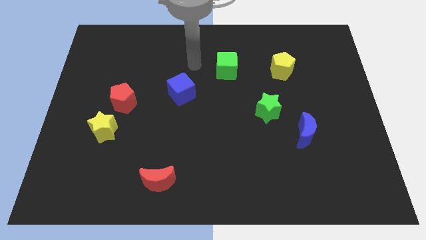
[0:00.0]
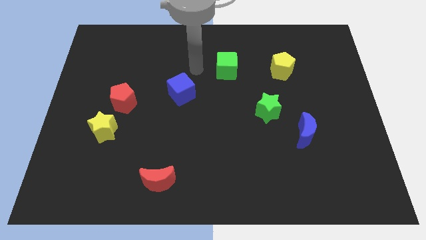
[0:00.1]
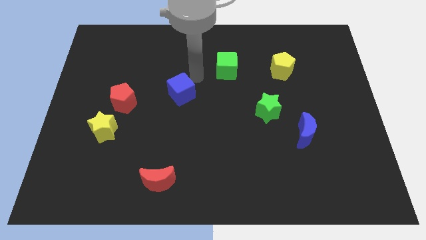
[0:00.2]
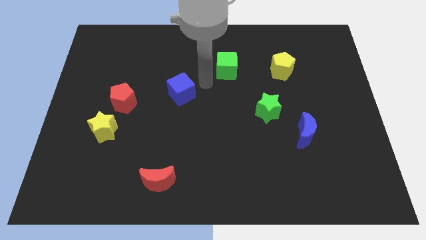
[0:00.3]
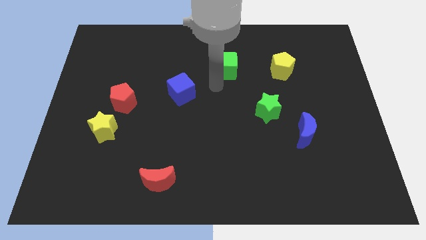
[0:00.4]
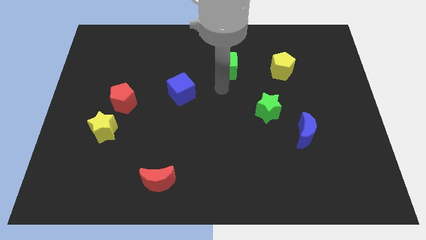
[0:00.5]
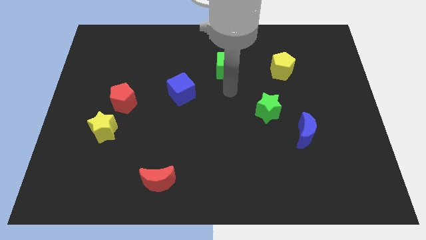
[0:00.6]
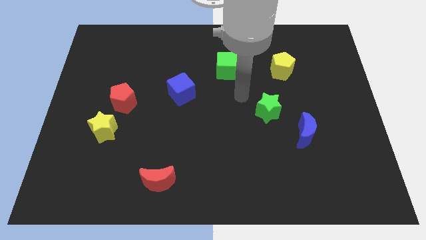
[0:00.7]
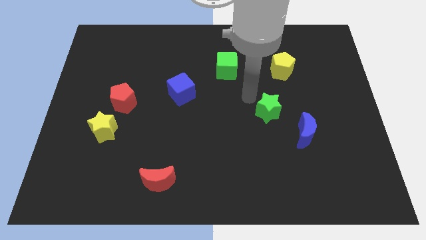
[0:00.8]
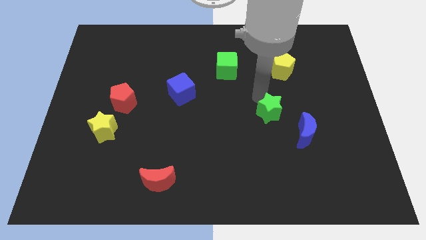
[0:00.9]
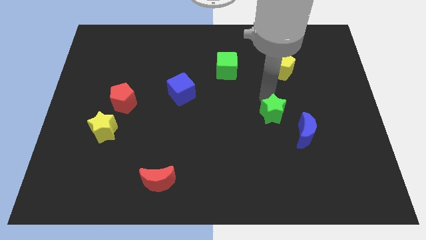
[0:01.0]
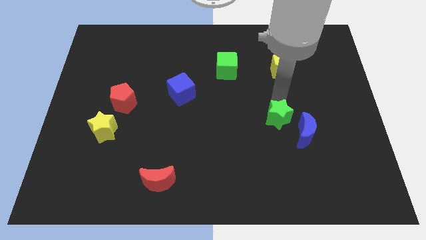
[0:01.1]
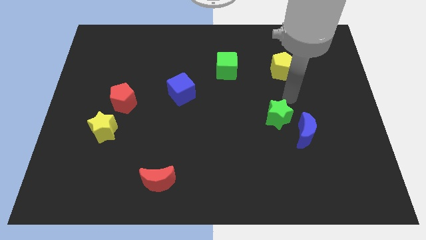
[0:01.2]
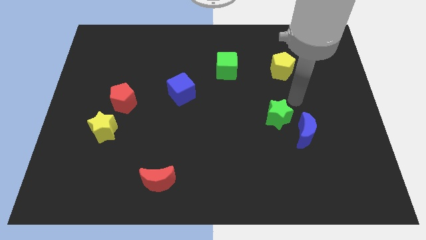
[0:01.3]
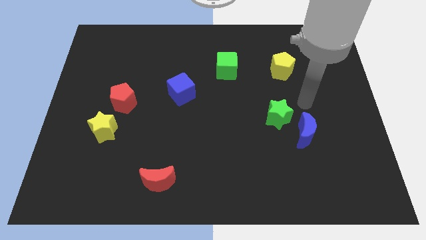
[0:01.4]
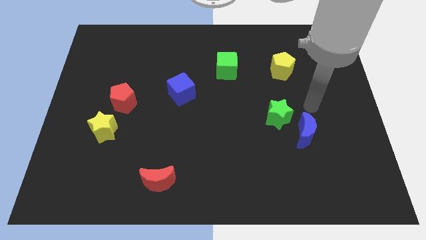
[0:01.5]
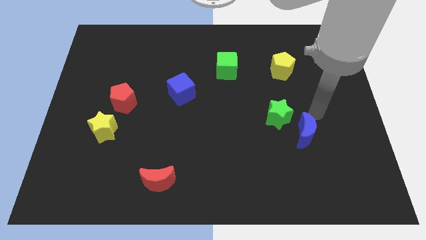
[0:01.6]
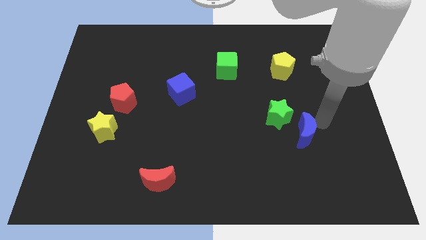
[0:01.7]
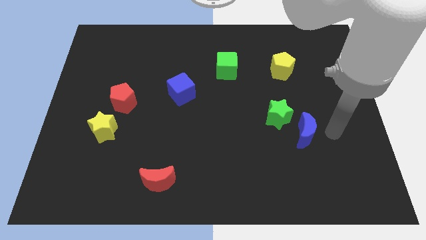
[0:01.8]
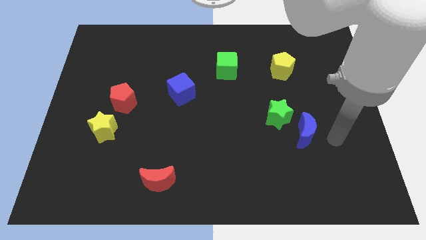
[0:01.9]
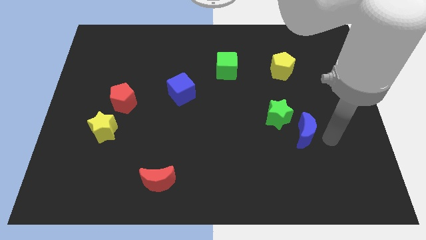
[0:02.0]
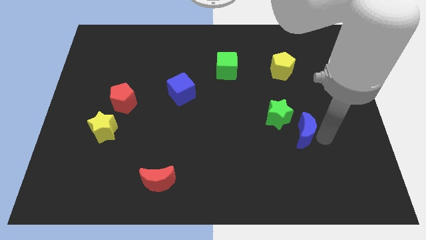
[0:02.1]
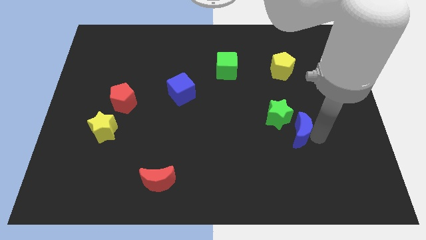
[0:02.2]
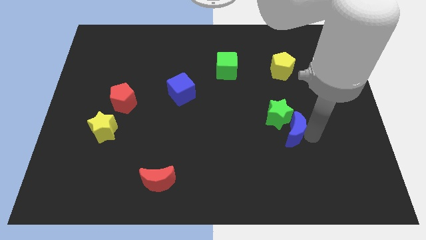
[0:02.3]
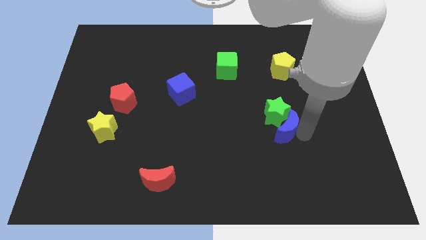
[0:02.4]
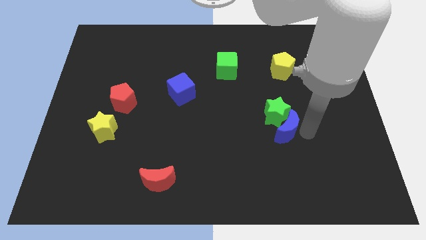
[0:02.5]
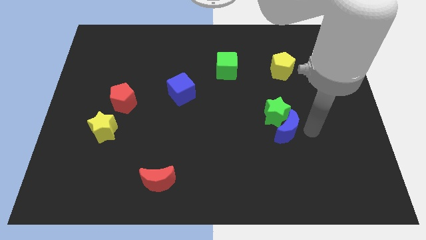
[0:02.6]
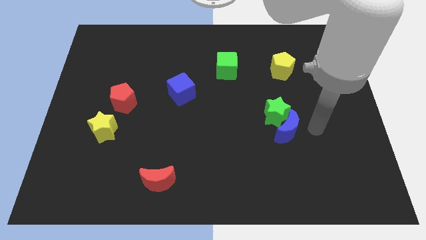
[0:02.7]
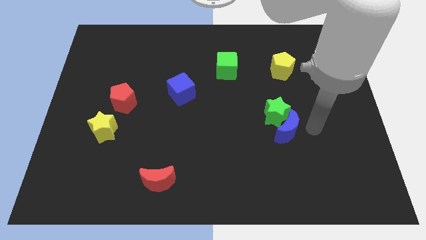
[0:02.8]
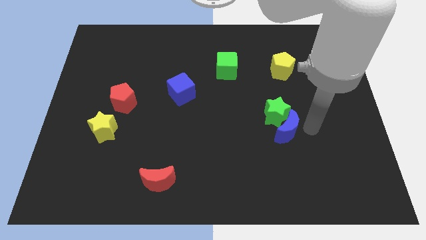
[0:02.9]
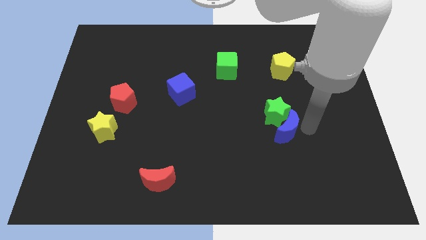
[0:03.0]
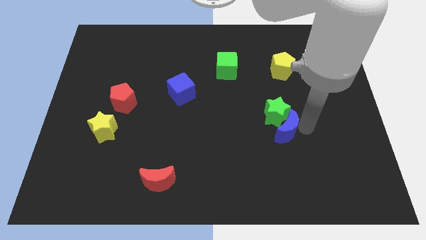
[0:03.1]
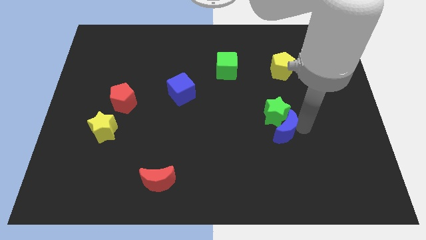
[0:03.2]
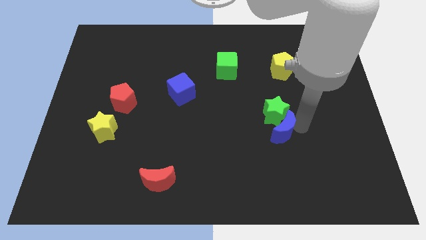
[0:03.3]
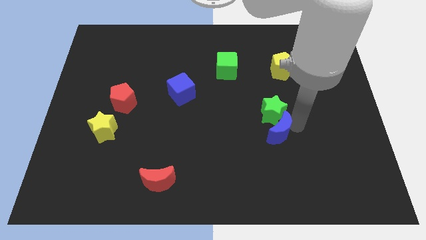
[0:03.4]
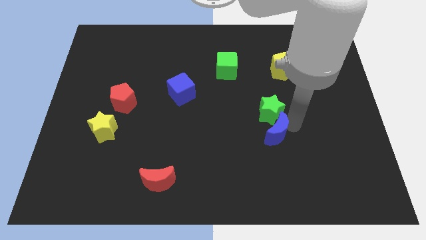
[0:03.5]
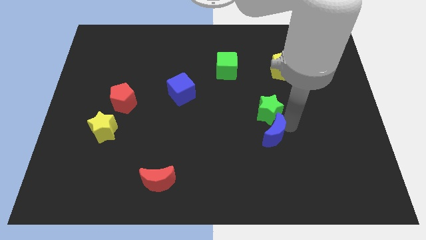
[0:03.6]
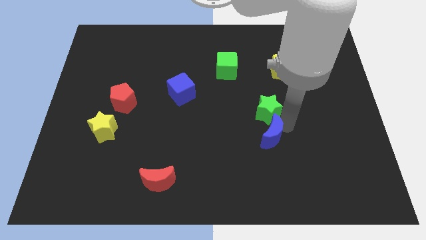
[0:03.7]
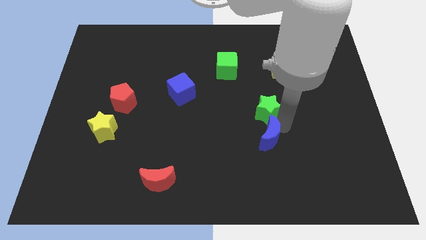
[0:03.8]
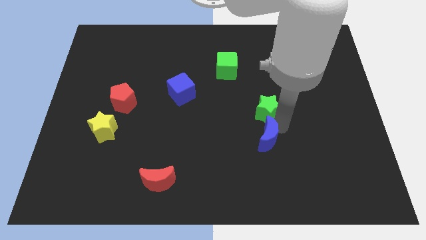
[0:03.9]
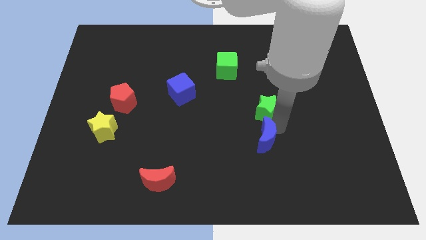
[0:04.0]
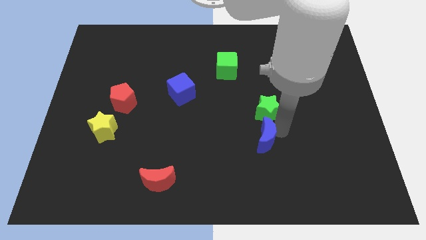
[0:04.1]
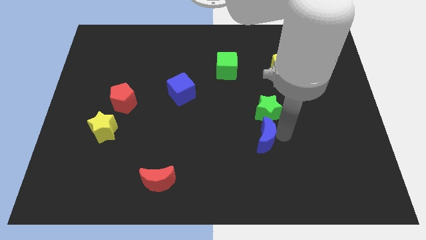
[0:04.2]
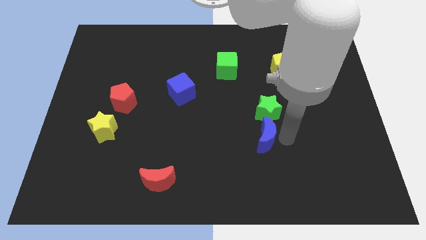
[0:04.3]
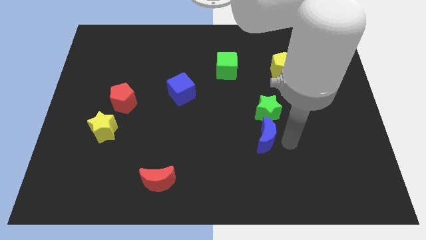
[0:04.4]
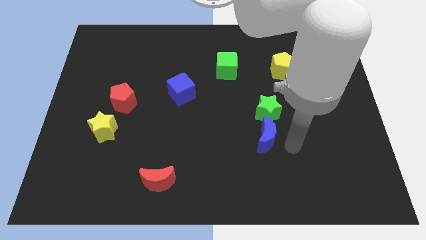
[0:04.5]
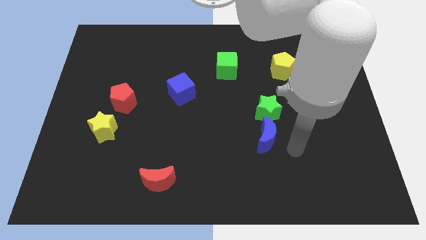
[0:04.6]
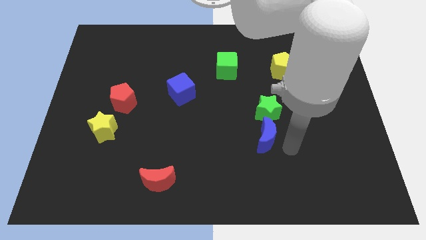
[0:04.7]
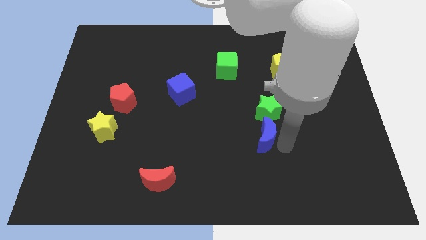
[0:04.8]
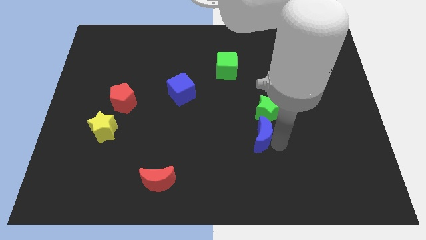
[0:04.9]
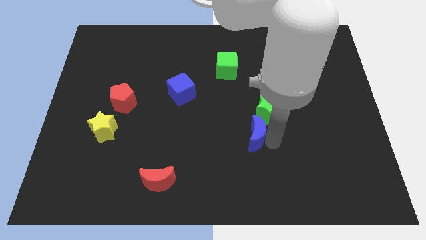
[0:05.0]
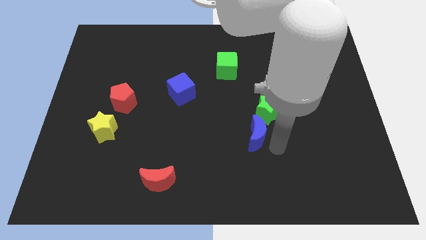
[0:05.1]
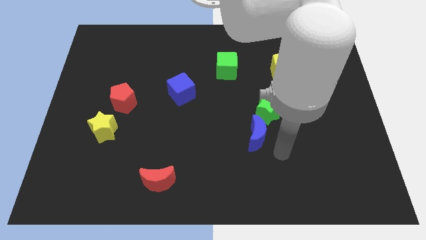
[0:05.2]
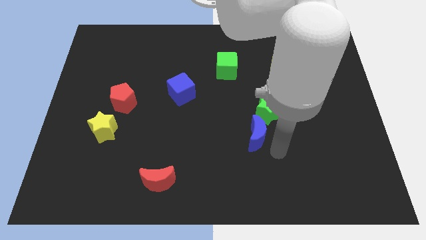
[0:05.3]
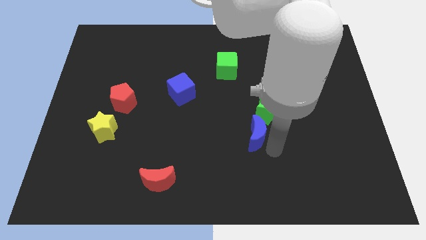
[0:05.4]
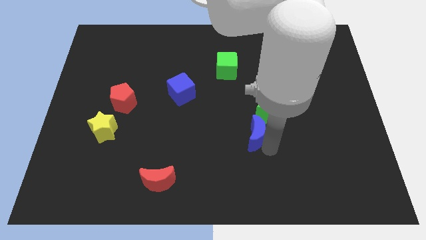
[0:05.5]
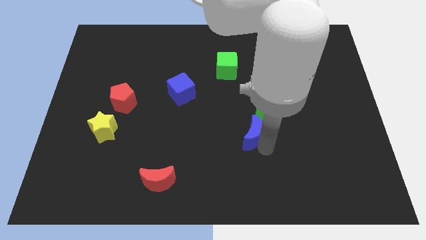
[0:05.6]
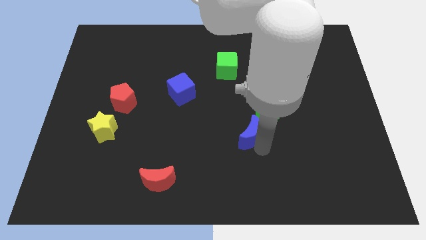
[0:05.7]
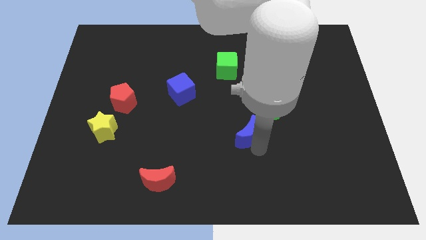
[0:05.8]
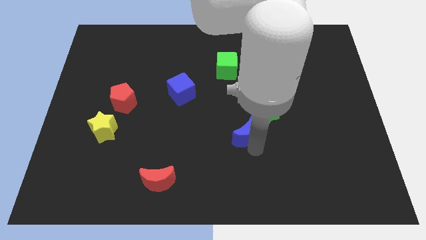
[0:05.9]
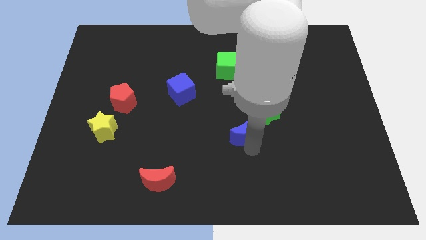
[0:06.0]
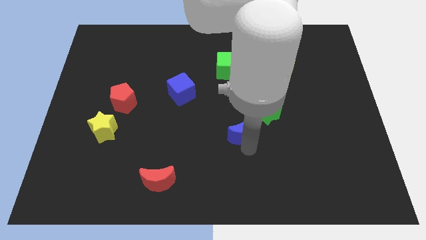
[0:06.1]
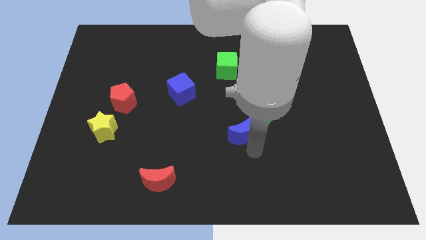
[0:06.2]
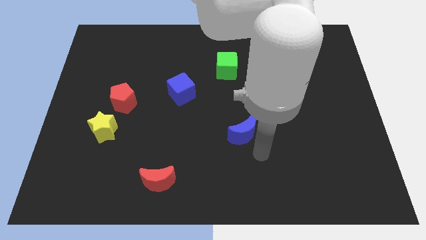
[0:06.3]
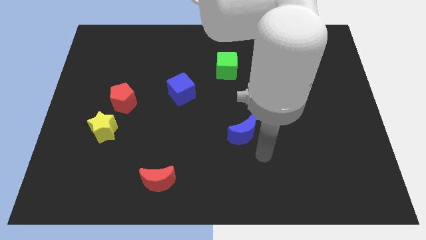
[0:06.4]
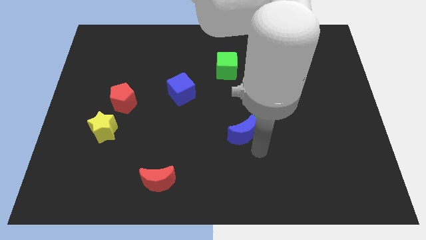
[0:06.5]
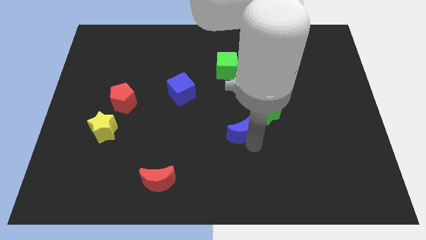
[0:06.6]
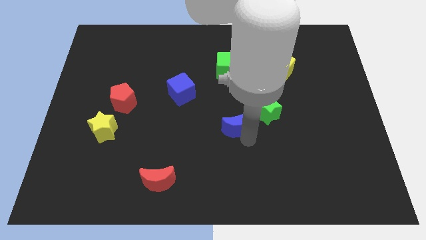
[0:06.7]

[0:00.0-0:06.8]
move the blue moon left of the green star
